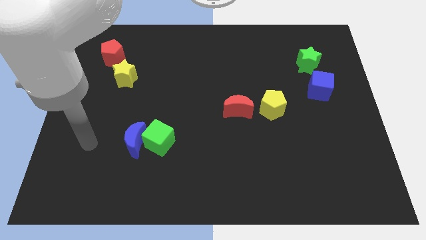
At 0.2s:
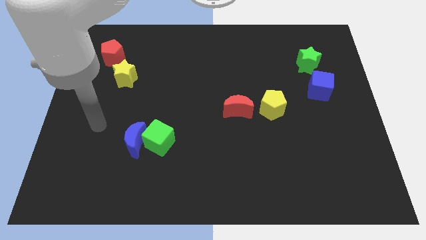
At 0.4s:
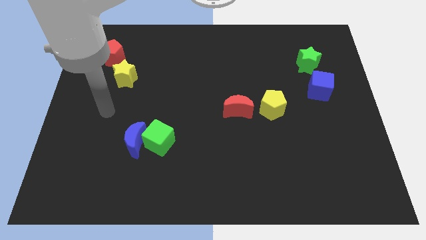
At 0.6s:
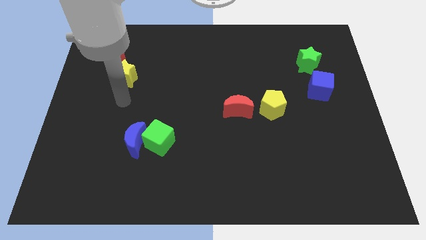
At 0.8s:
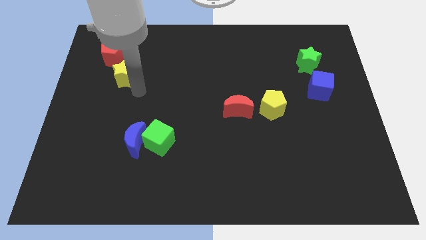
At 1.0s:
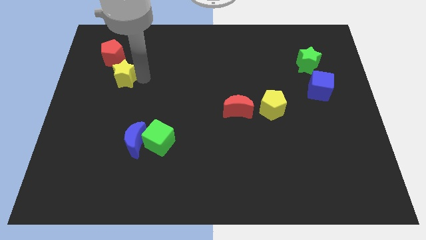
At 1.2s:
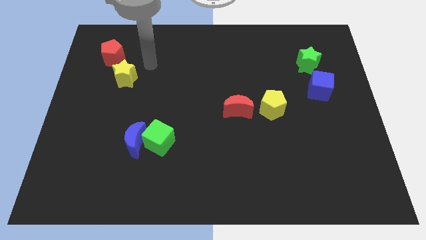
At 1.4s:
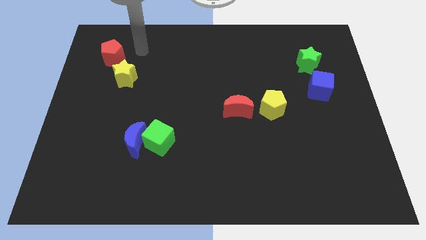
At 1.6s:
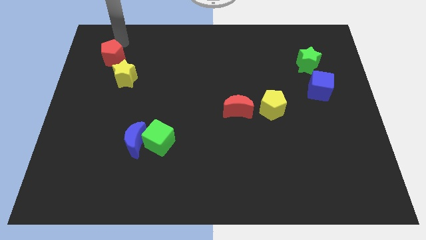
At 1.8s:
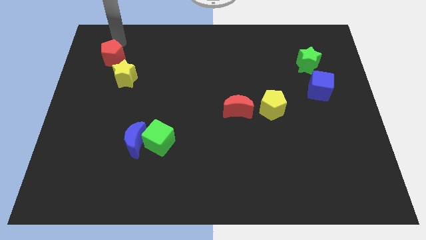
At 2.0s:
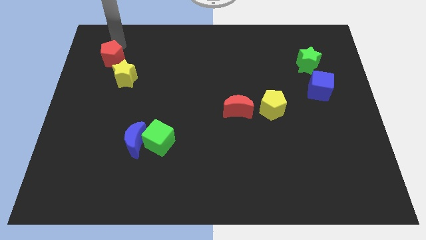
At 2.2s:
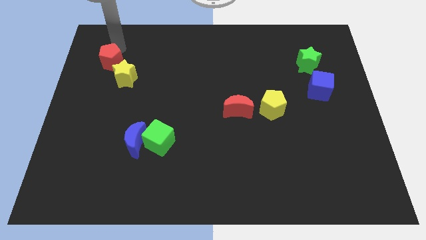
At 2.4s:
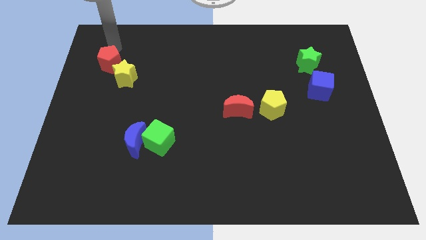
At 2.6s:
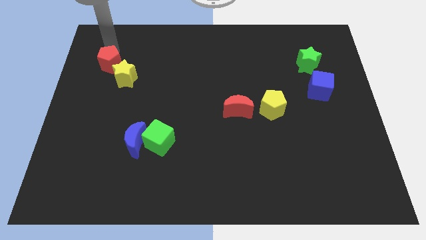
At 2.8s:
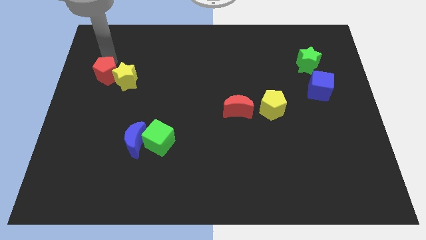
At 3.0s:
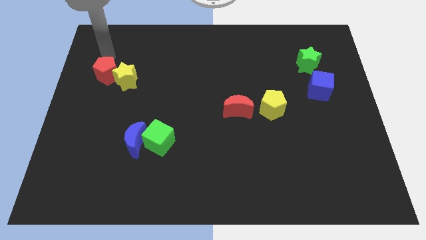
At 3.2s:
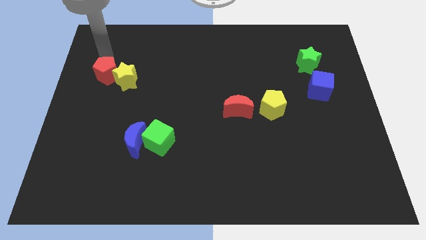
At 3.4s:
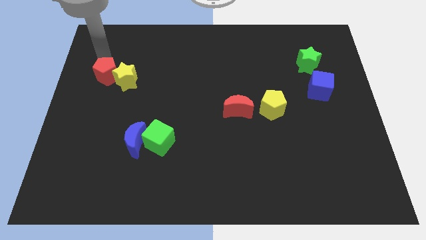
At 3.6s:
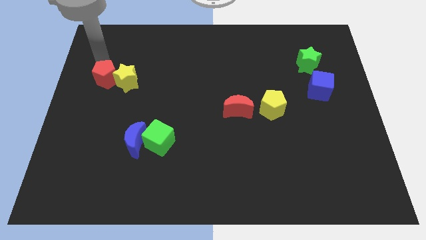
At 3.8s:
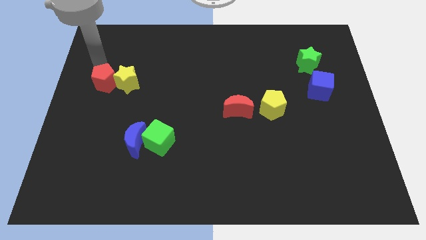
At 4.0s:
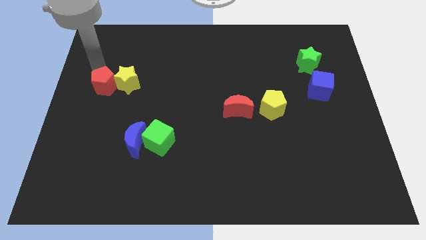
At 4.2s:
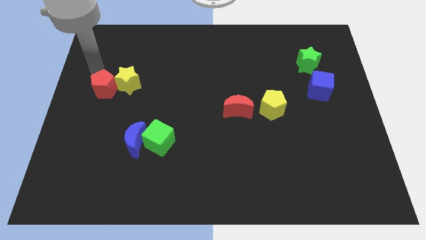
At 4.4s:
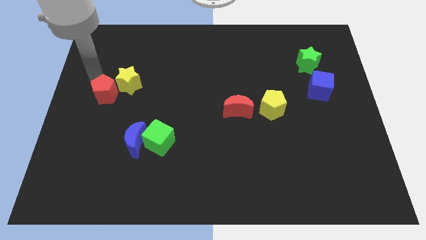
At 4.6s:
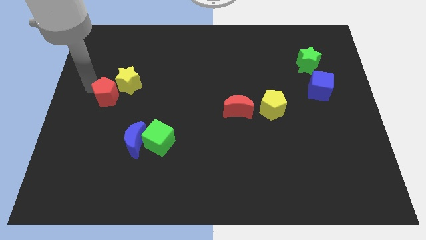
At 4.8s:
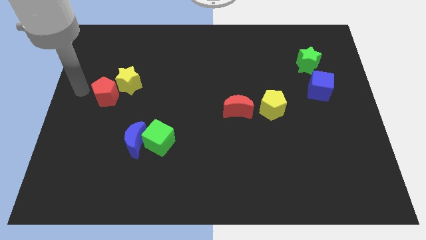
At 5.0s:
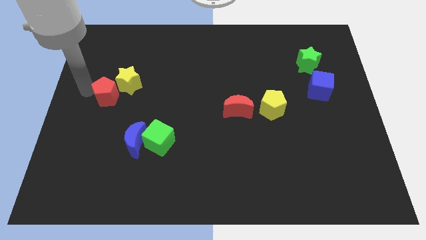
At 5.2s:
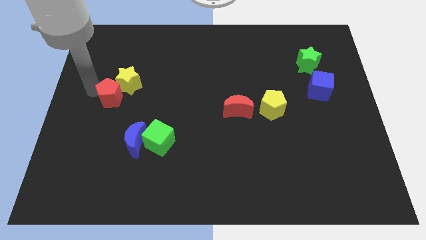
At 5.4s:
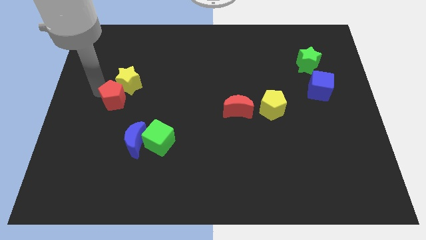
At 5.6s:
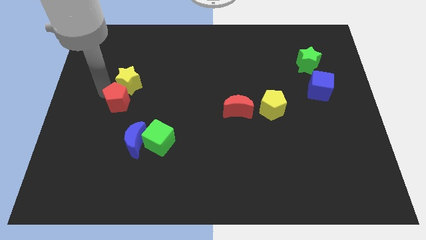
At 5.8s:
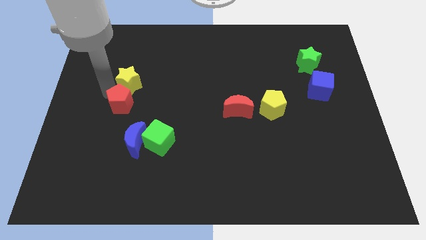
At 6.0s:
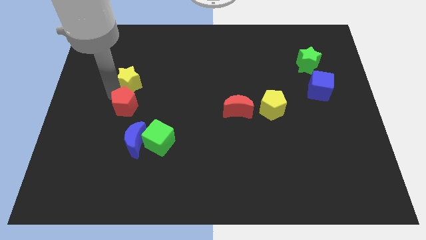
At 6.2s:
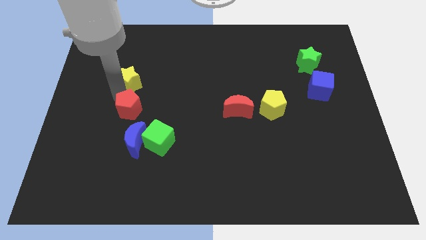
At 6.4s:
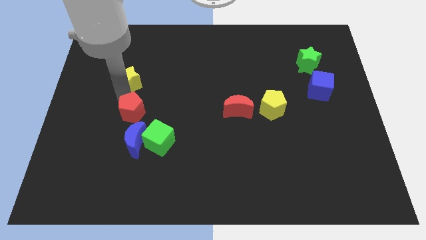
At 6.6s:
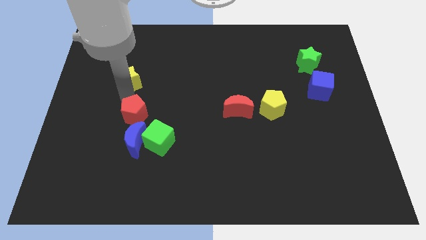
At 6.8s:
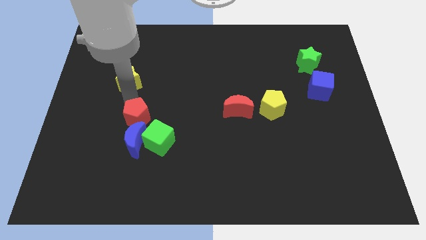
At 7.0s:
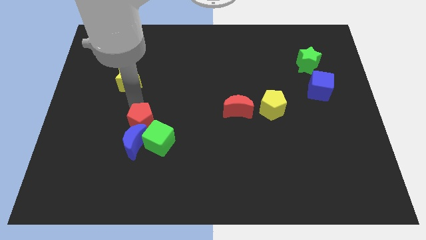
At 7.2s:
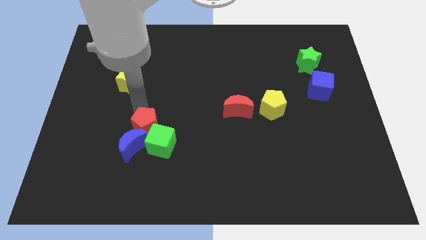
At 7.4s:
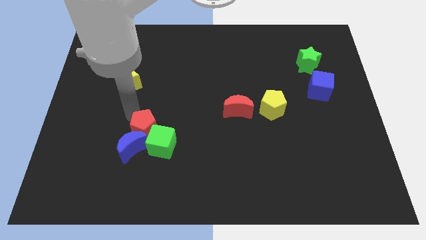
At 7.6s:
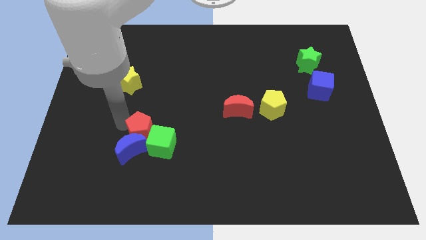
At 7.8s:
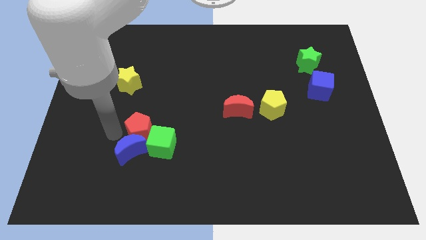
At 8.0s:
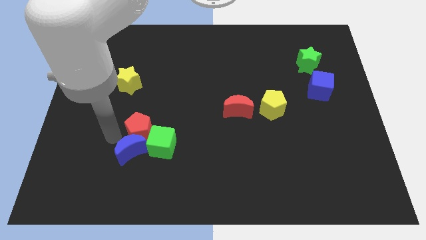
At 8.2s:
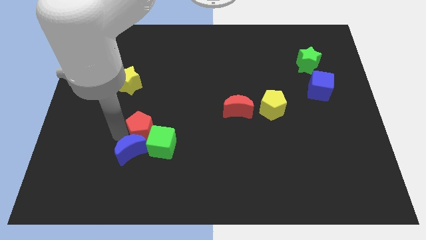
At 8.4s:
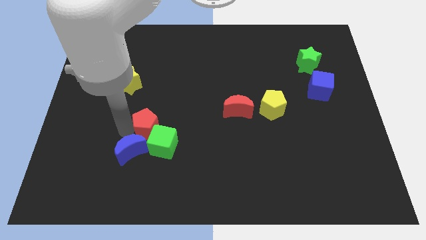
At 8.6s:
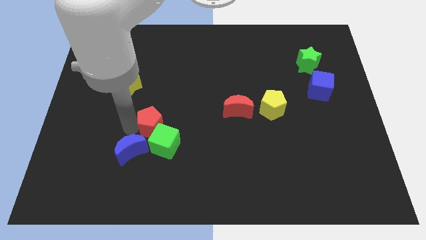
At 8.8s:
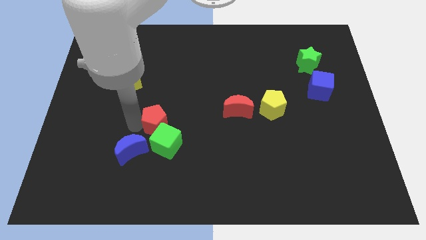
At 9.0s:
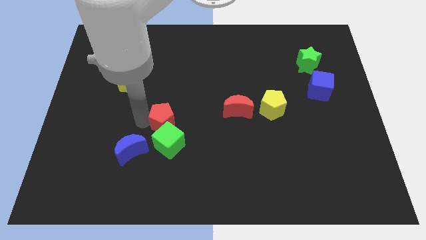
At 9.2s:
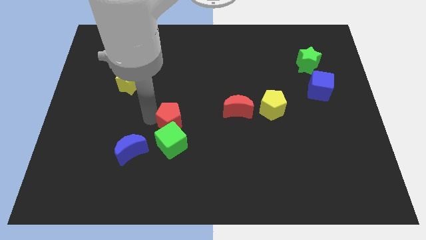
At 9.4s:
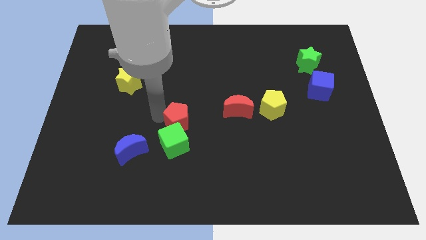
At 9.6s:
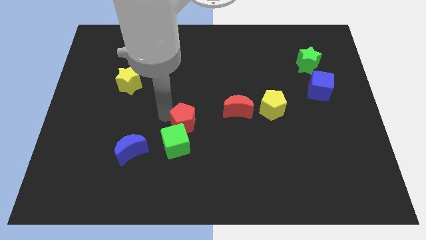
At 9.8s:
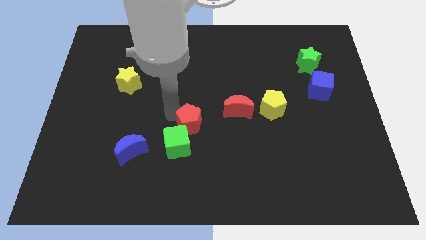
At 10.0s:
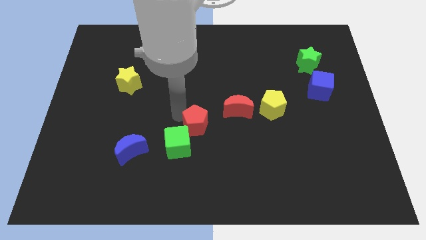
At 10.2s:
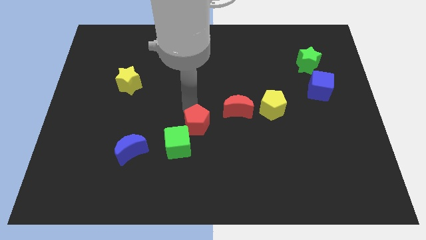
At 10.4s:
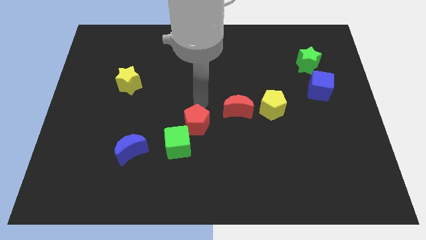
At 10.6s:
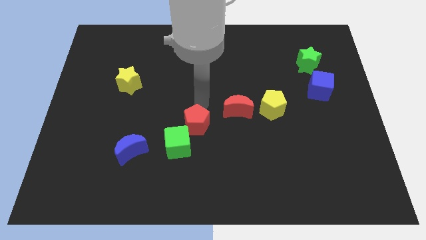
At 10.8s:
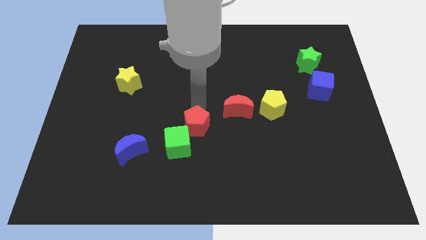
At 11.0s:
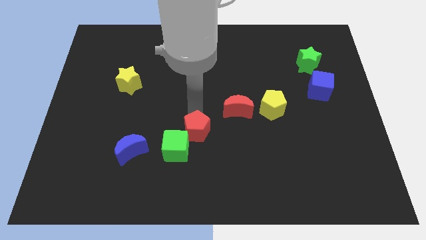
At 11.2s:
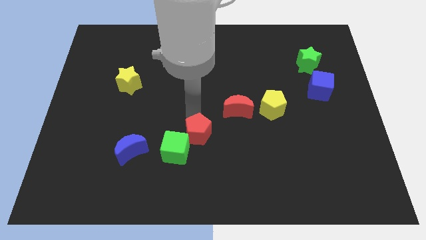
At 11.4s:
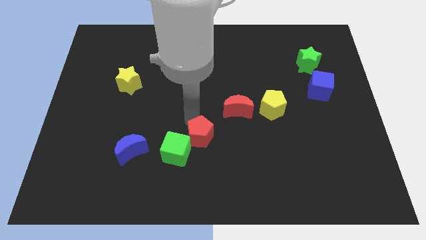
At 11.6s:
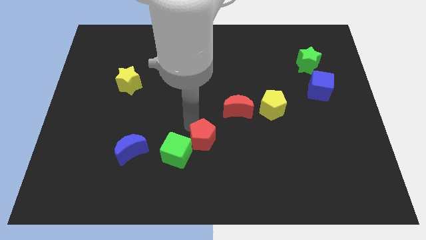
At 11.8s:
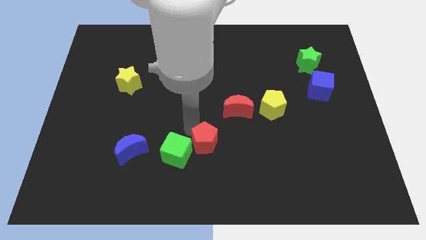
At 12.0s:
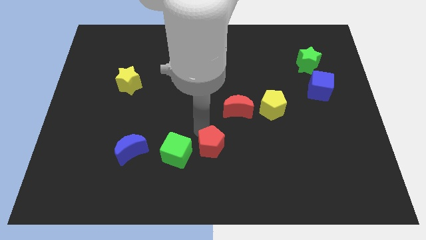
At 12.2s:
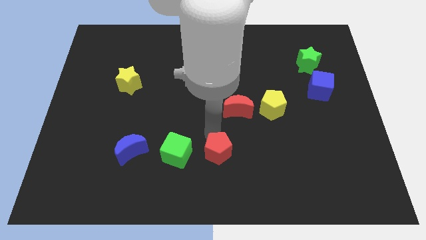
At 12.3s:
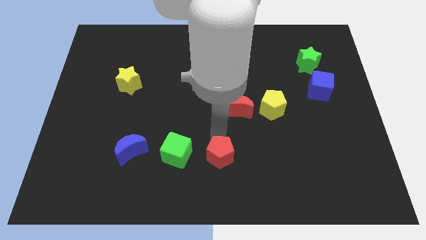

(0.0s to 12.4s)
move the red pentagon to the bottom

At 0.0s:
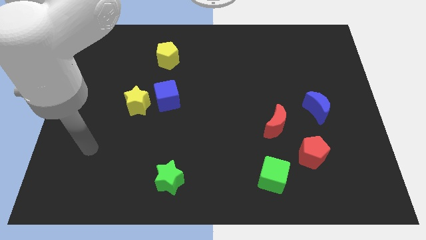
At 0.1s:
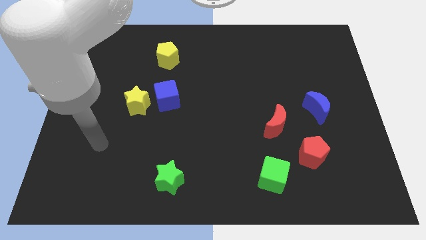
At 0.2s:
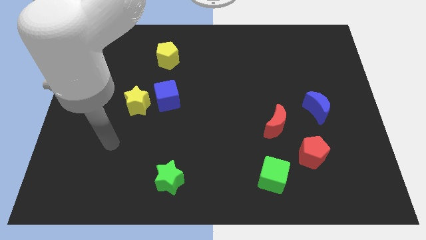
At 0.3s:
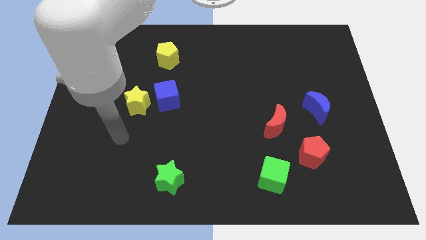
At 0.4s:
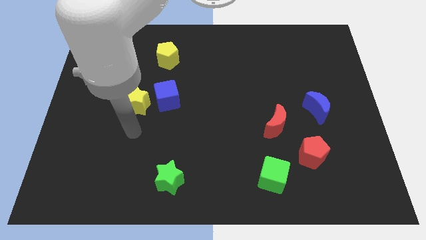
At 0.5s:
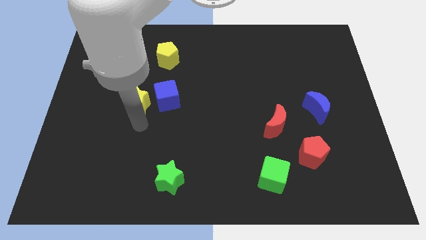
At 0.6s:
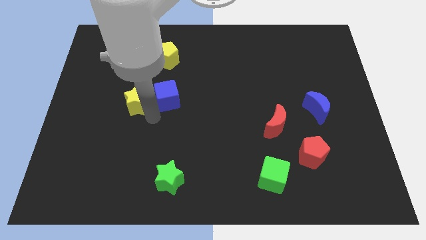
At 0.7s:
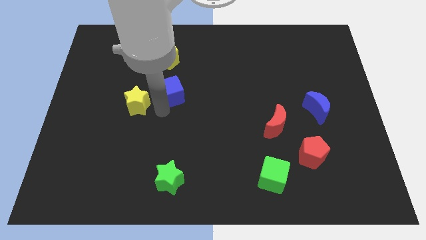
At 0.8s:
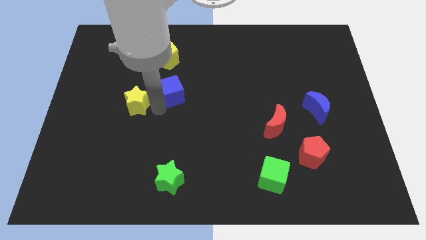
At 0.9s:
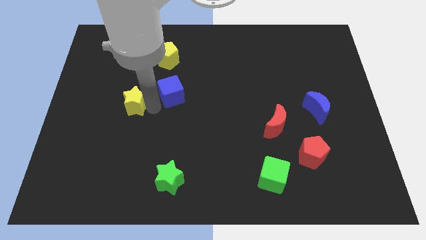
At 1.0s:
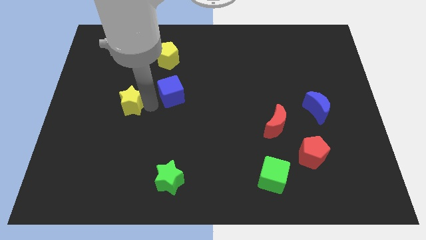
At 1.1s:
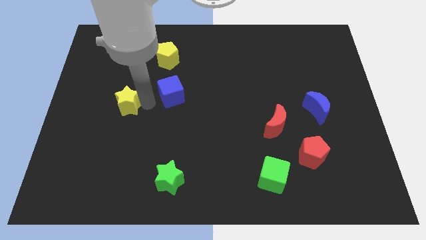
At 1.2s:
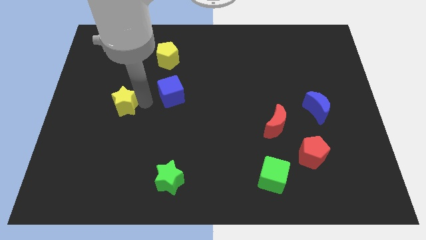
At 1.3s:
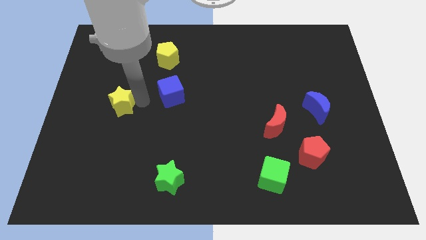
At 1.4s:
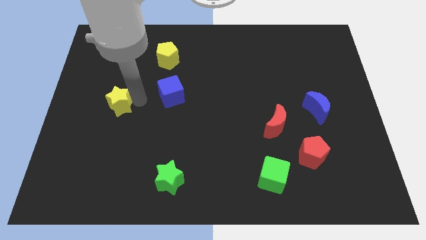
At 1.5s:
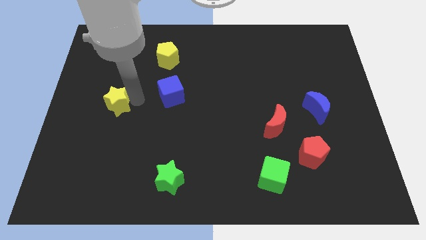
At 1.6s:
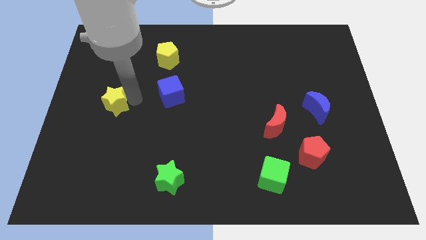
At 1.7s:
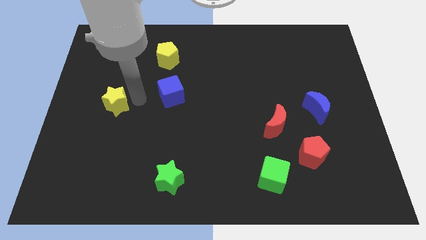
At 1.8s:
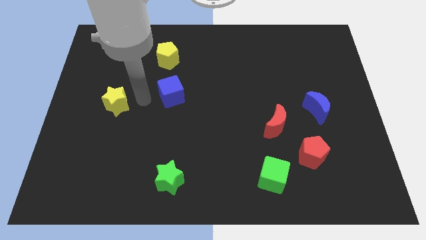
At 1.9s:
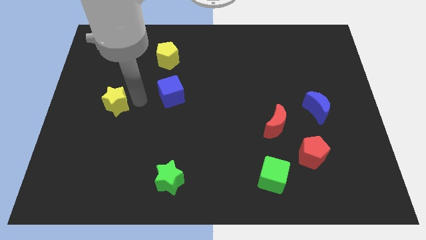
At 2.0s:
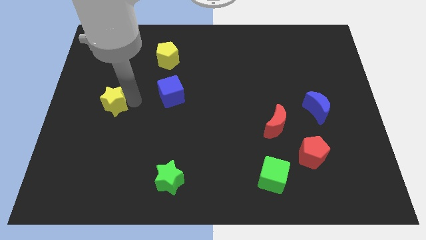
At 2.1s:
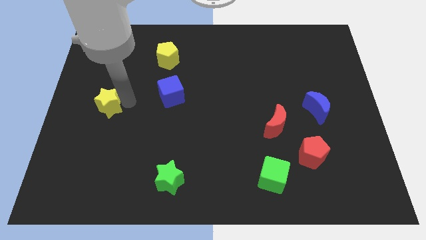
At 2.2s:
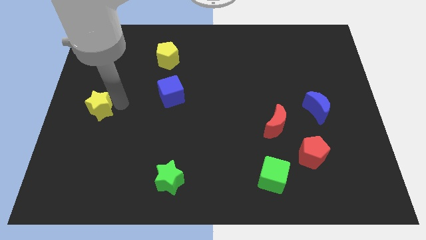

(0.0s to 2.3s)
move the yellow star to the center left
